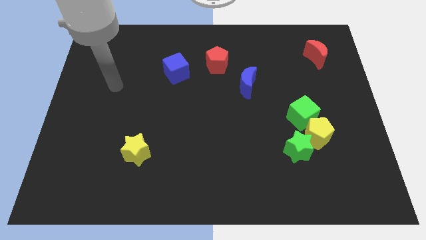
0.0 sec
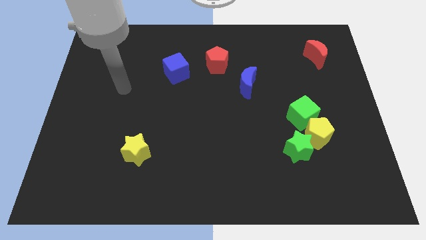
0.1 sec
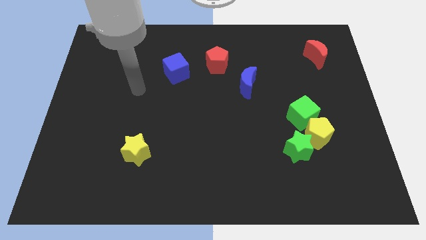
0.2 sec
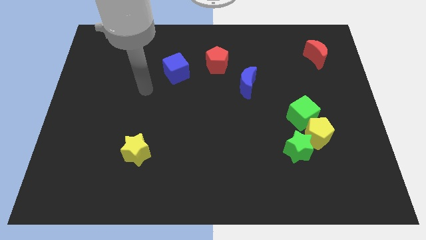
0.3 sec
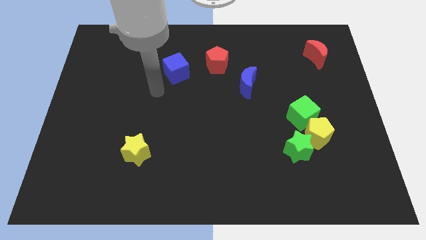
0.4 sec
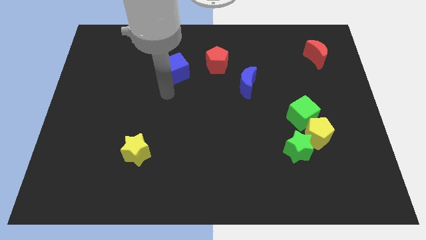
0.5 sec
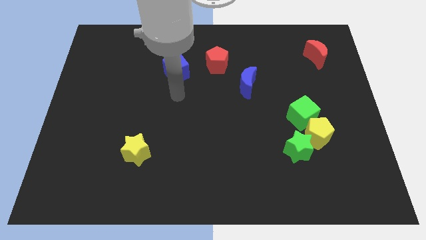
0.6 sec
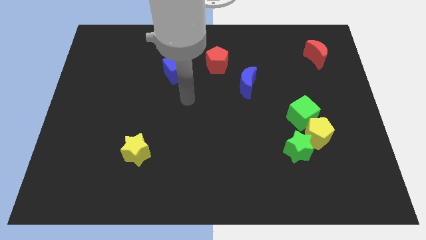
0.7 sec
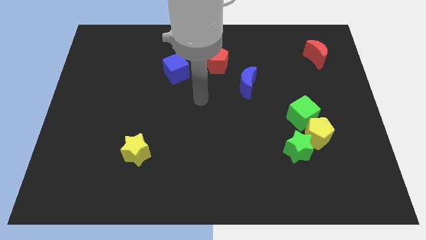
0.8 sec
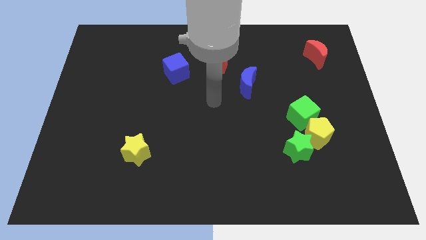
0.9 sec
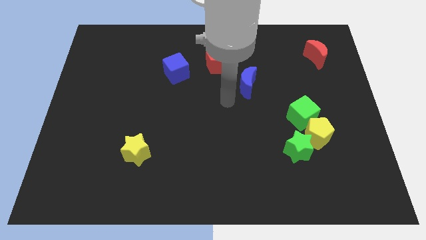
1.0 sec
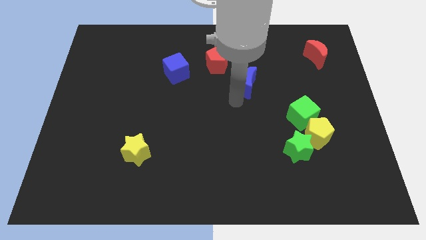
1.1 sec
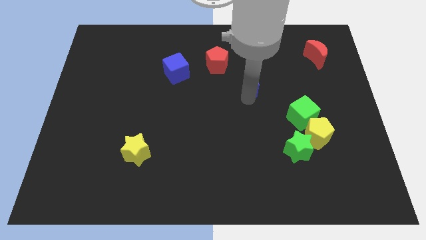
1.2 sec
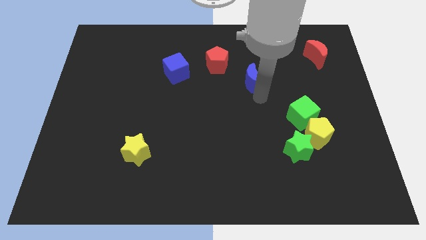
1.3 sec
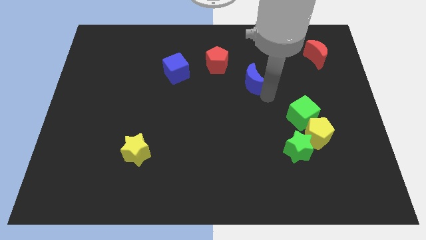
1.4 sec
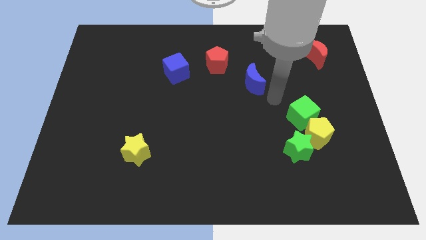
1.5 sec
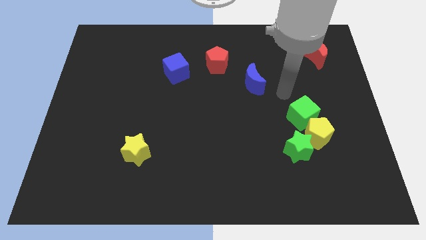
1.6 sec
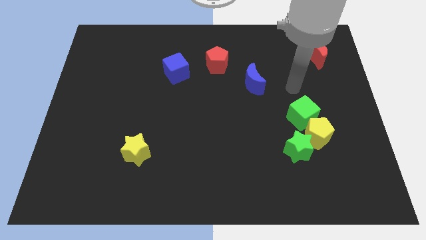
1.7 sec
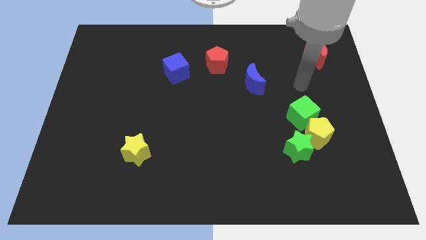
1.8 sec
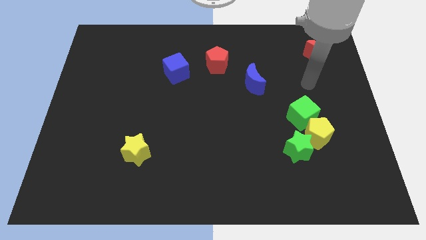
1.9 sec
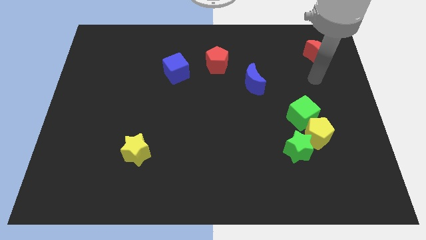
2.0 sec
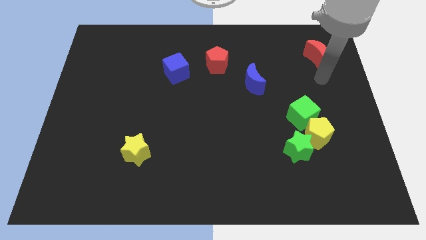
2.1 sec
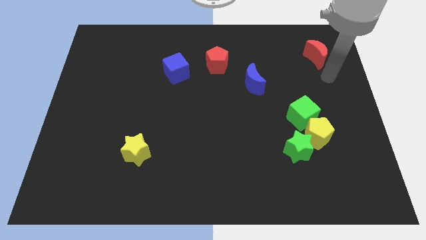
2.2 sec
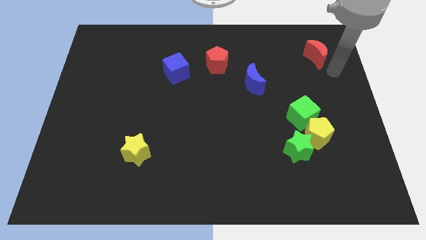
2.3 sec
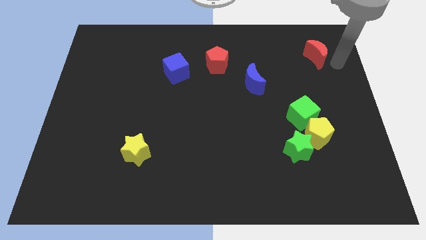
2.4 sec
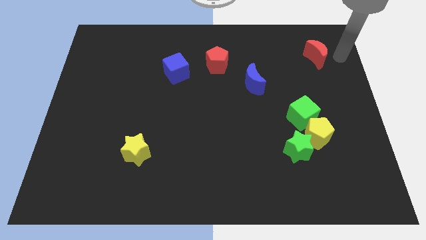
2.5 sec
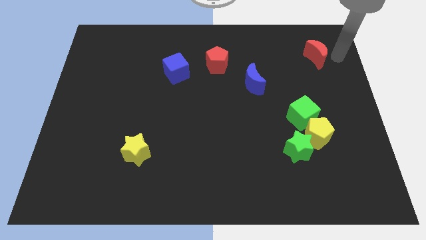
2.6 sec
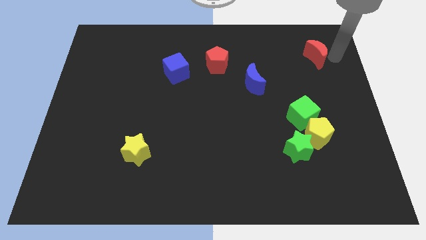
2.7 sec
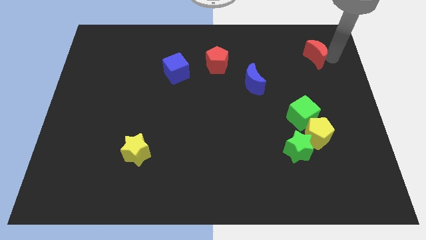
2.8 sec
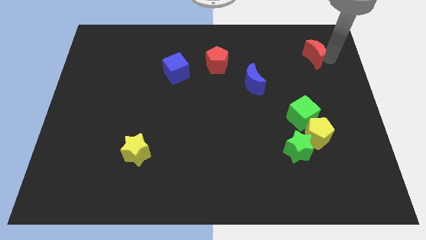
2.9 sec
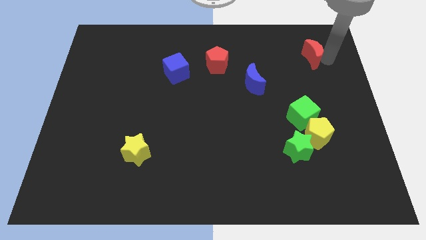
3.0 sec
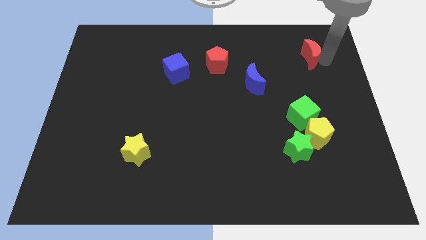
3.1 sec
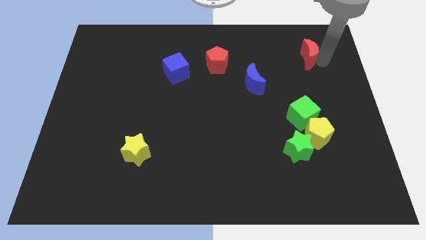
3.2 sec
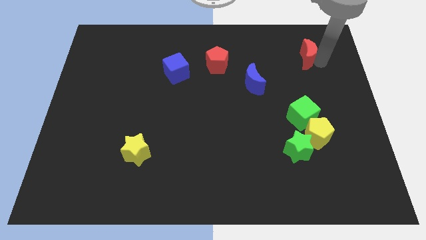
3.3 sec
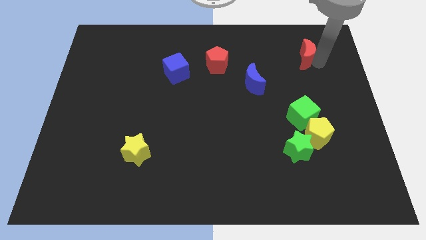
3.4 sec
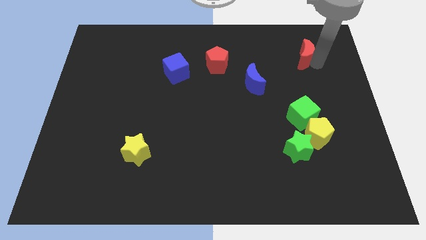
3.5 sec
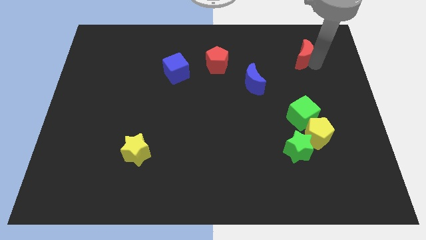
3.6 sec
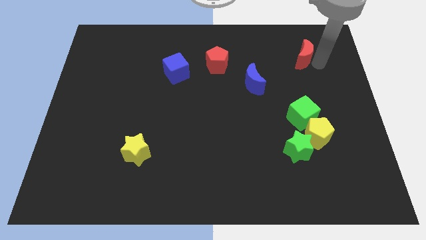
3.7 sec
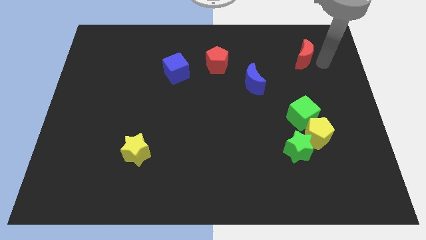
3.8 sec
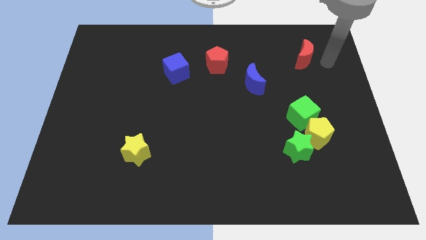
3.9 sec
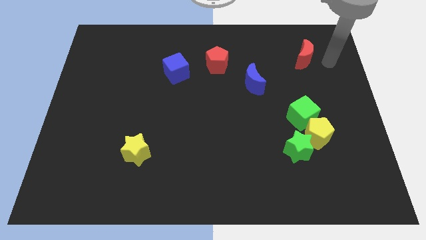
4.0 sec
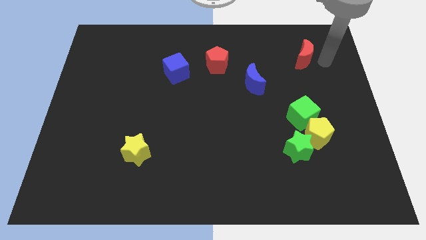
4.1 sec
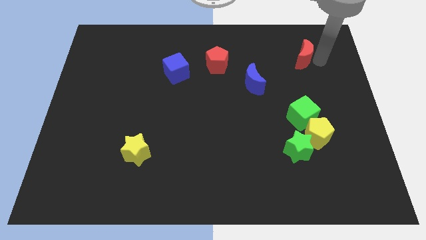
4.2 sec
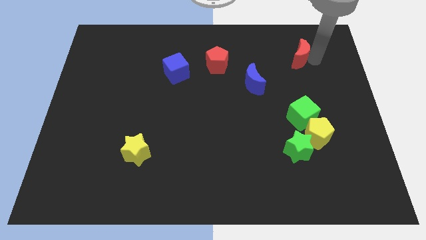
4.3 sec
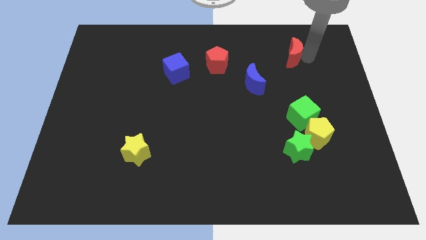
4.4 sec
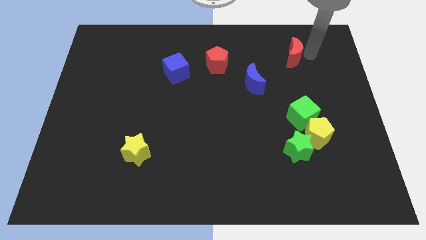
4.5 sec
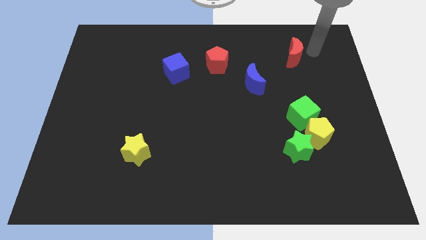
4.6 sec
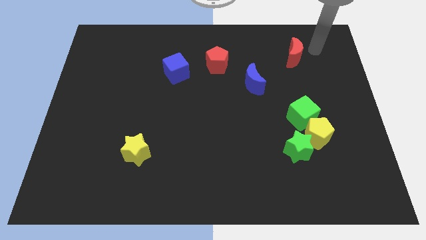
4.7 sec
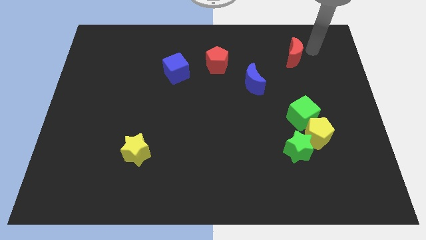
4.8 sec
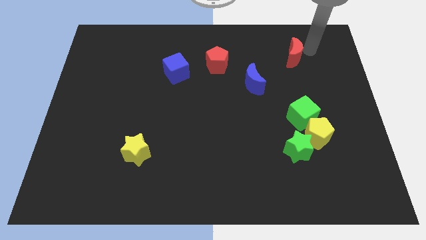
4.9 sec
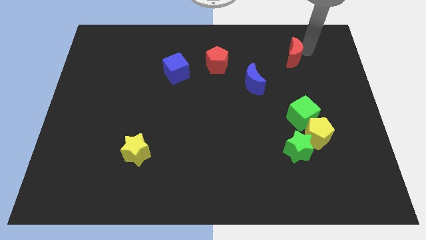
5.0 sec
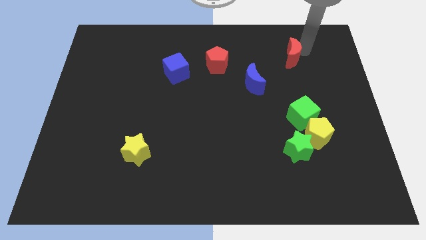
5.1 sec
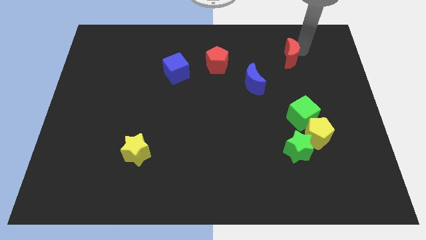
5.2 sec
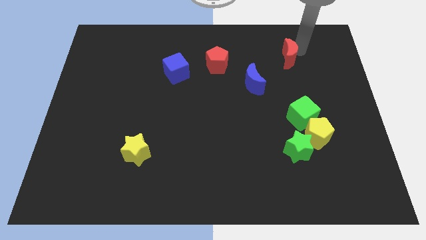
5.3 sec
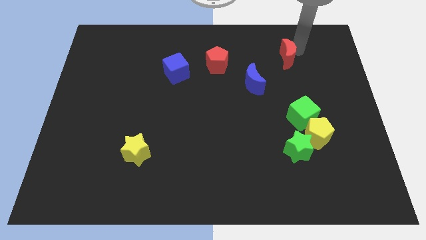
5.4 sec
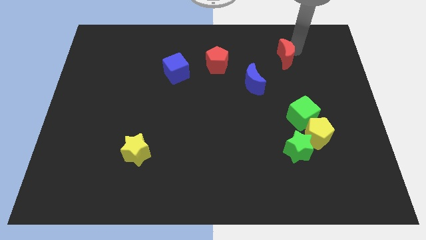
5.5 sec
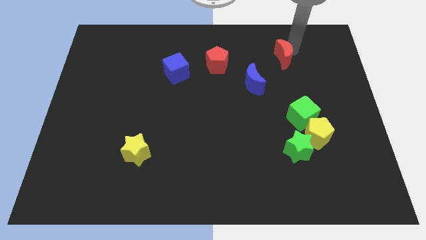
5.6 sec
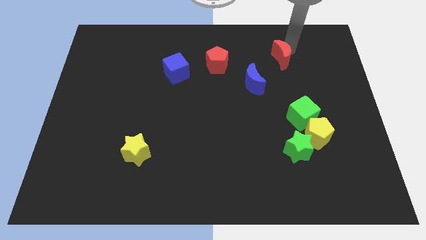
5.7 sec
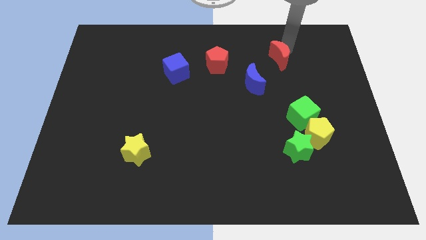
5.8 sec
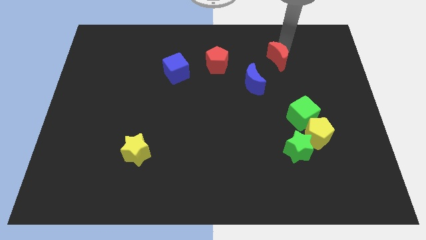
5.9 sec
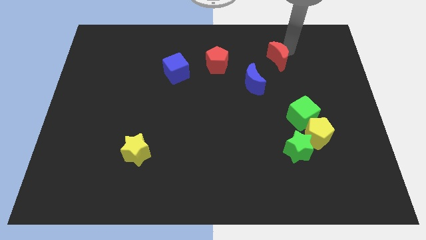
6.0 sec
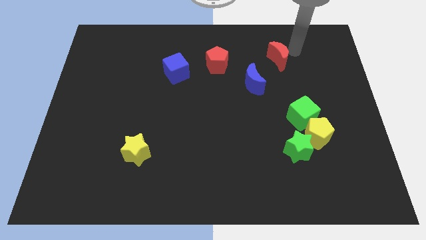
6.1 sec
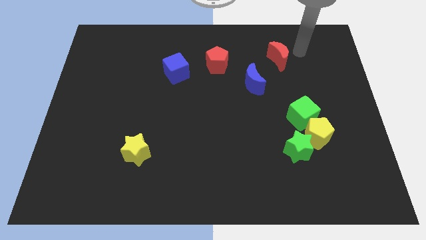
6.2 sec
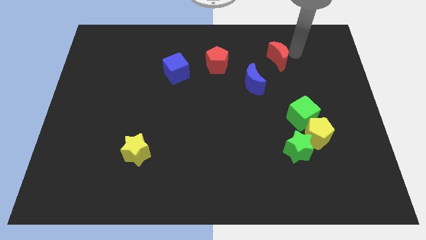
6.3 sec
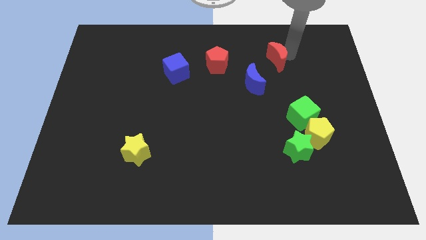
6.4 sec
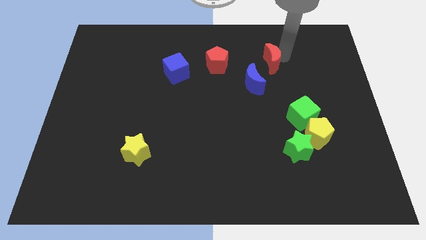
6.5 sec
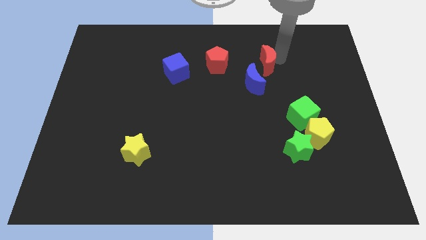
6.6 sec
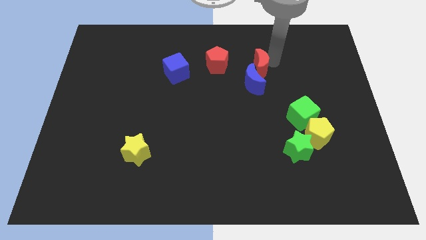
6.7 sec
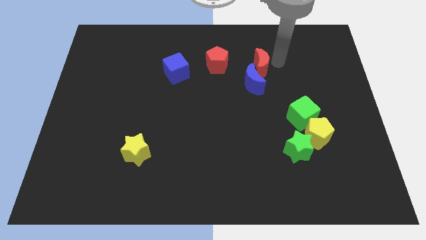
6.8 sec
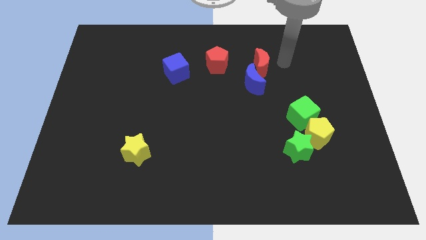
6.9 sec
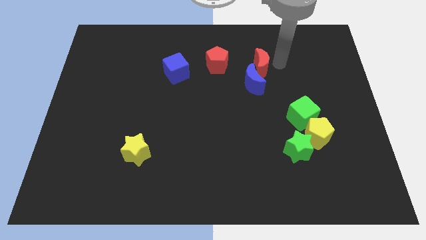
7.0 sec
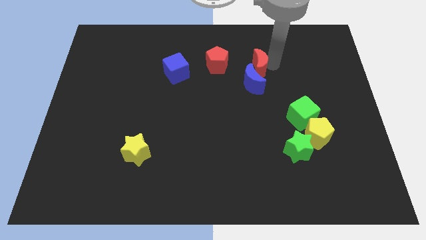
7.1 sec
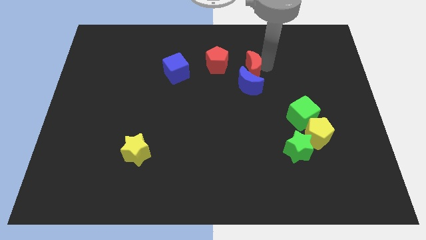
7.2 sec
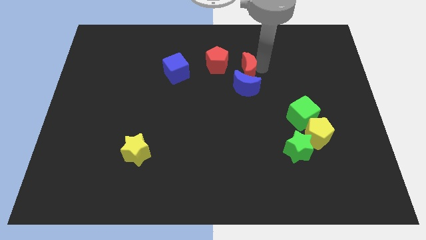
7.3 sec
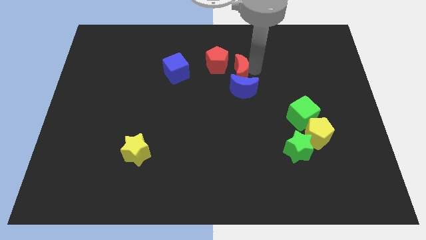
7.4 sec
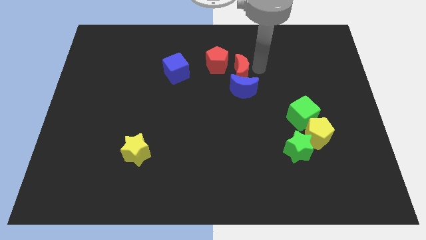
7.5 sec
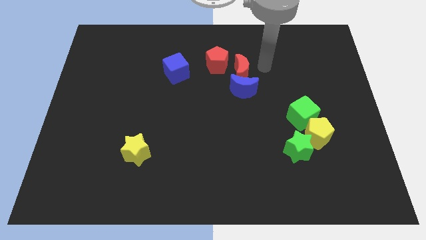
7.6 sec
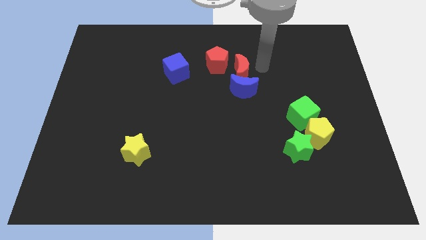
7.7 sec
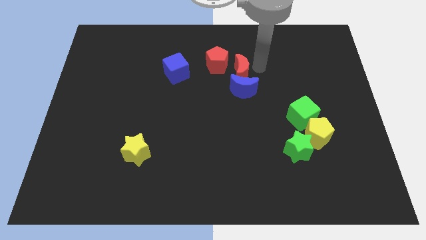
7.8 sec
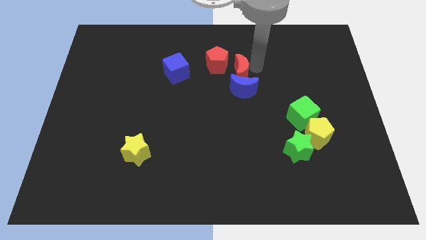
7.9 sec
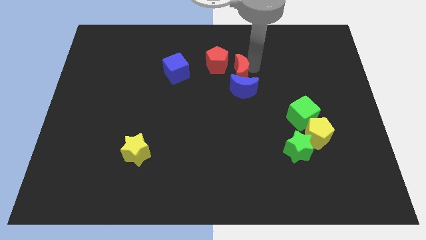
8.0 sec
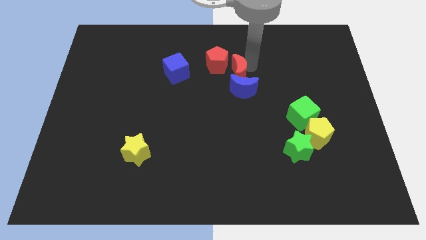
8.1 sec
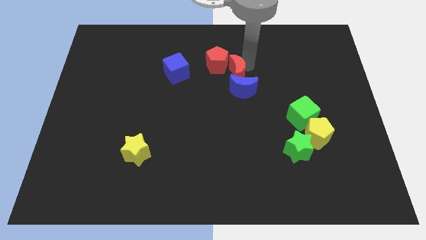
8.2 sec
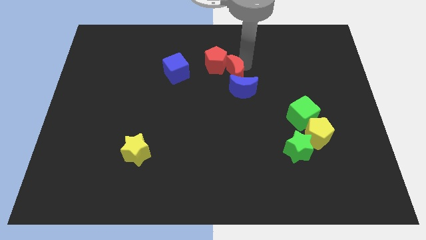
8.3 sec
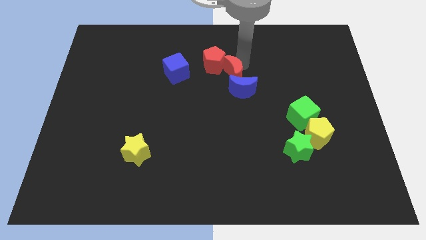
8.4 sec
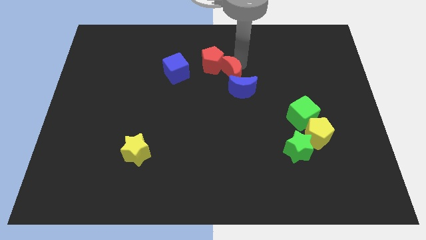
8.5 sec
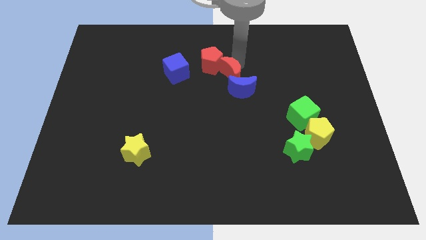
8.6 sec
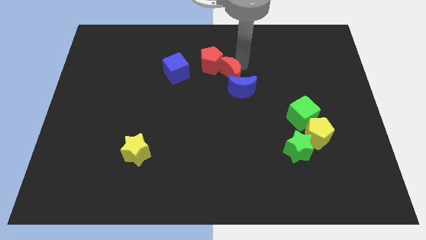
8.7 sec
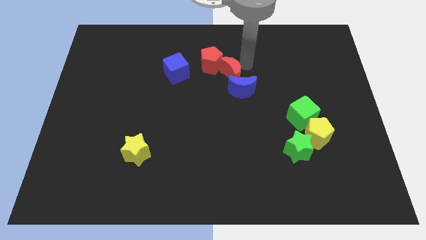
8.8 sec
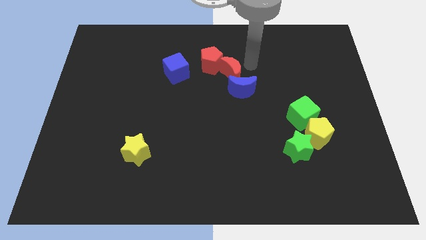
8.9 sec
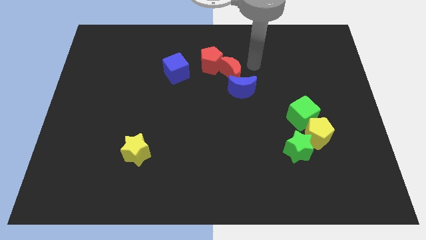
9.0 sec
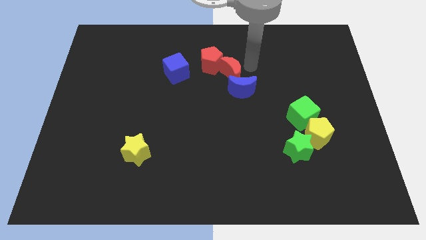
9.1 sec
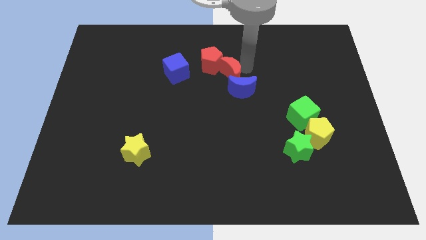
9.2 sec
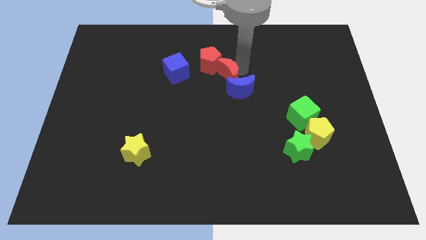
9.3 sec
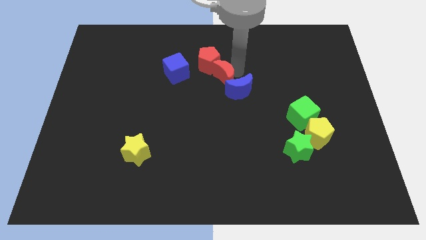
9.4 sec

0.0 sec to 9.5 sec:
put the red moon just left of the blue moon
